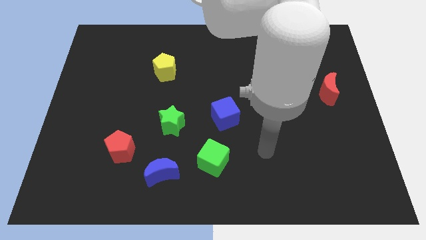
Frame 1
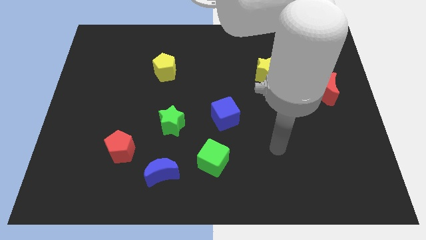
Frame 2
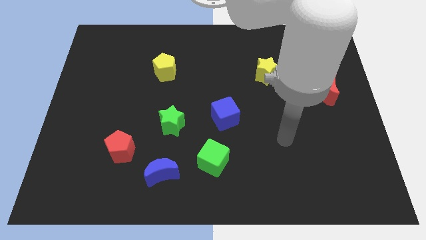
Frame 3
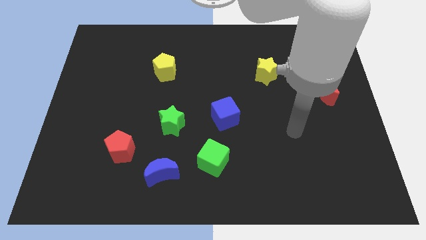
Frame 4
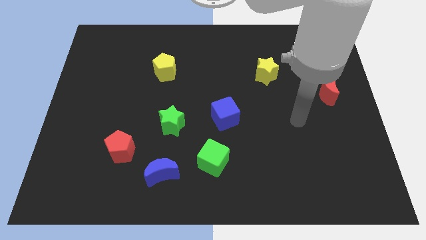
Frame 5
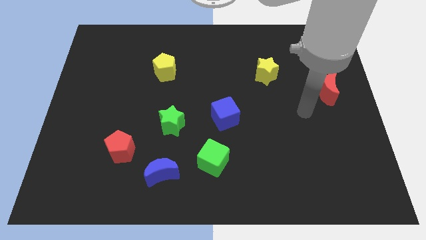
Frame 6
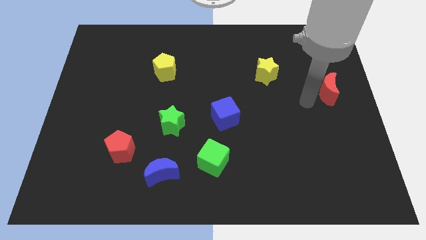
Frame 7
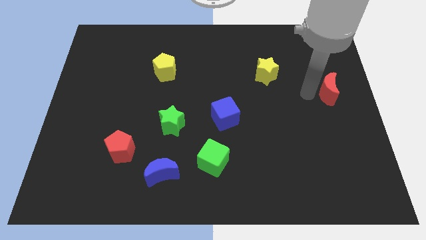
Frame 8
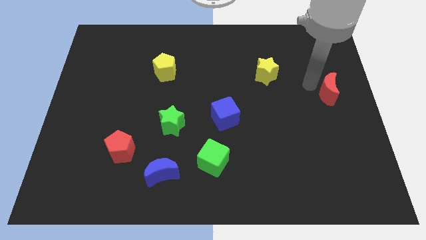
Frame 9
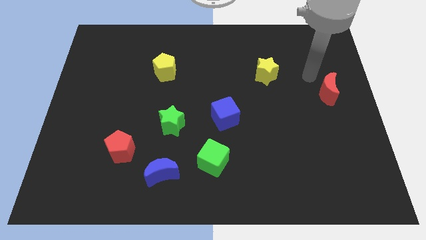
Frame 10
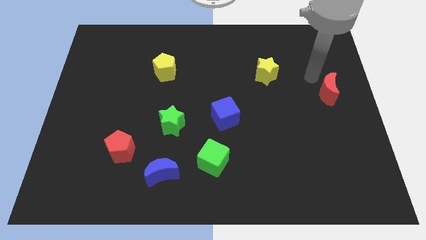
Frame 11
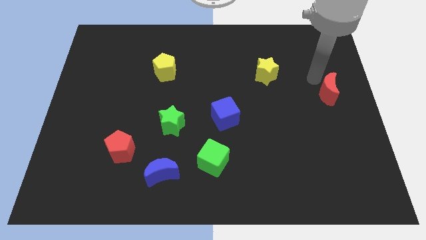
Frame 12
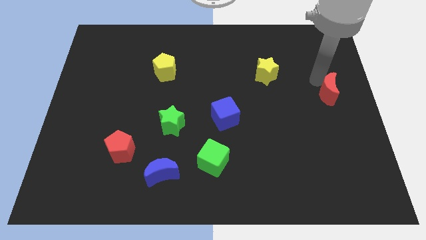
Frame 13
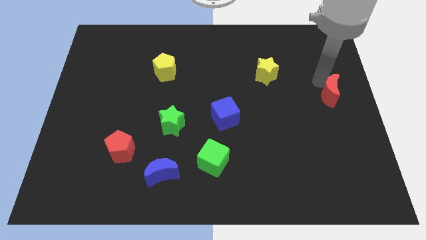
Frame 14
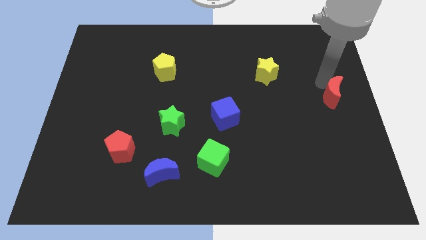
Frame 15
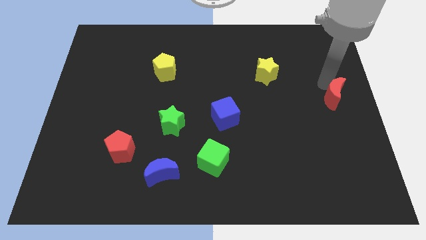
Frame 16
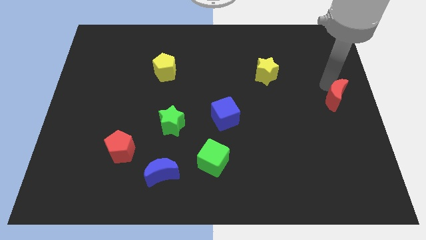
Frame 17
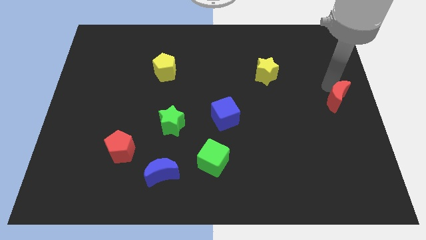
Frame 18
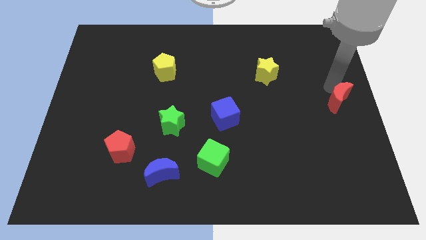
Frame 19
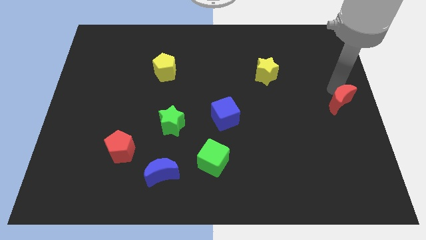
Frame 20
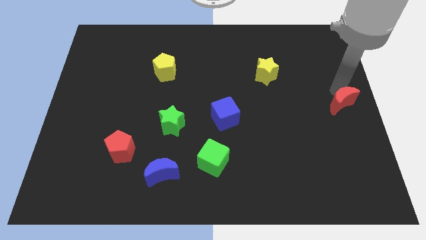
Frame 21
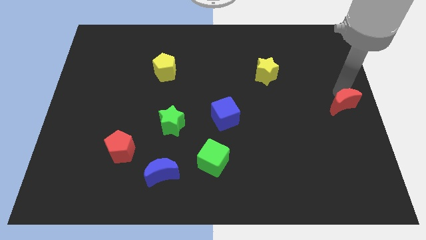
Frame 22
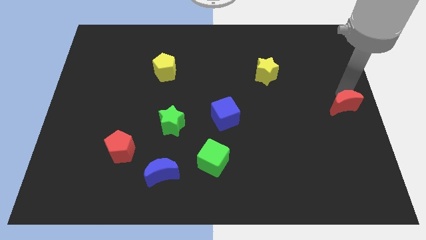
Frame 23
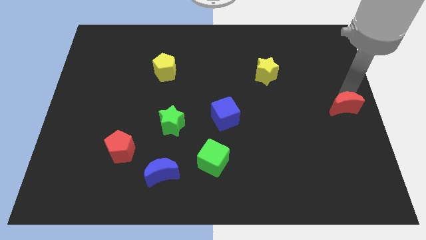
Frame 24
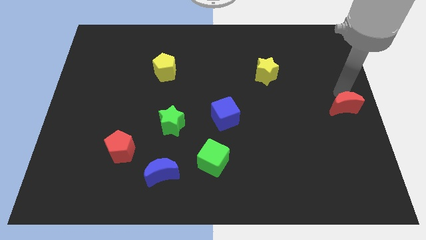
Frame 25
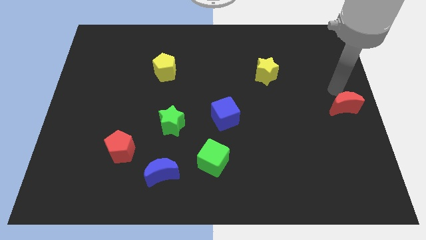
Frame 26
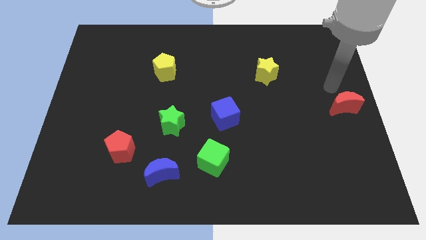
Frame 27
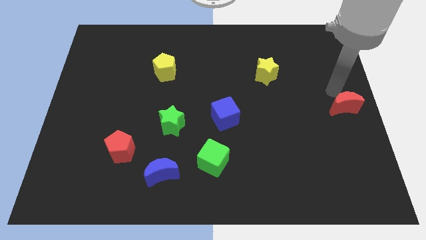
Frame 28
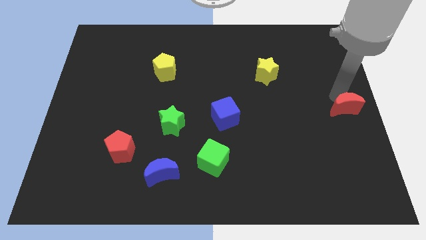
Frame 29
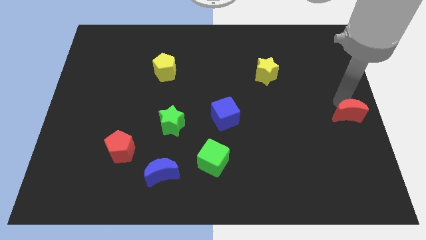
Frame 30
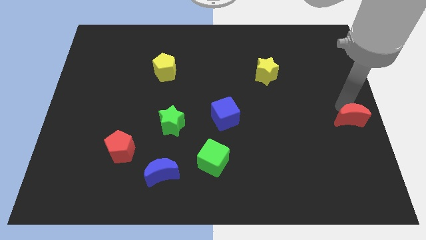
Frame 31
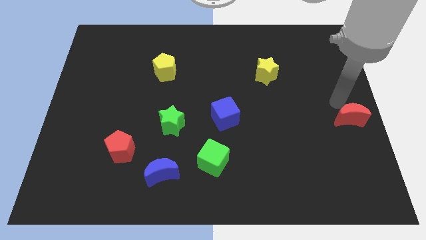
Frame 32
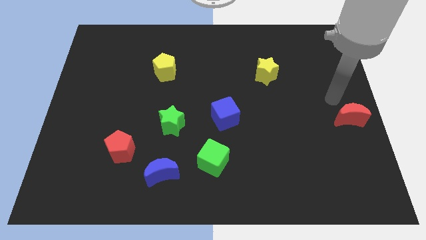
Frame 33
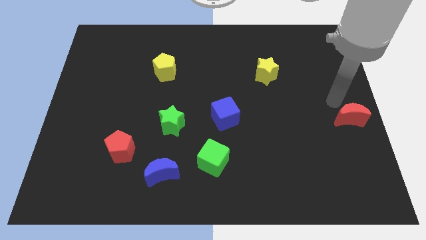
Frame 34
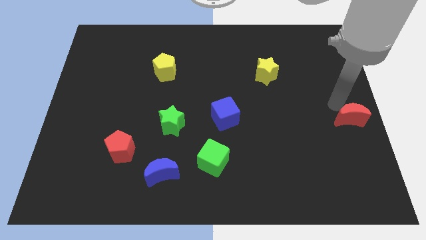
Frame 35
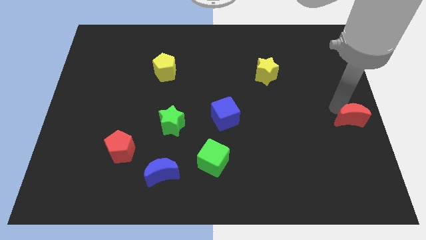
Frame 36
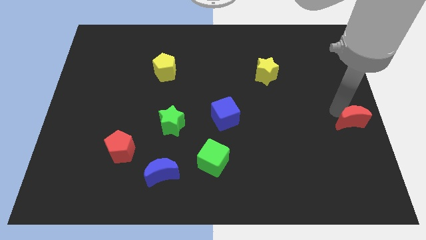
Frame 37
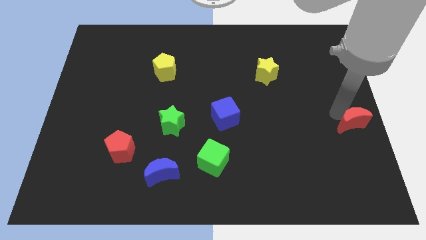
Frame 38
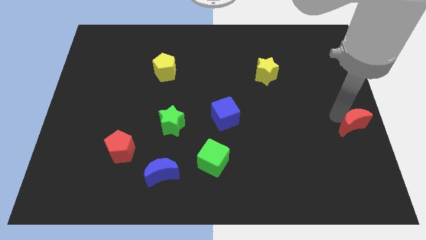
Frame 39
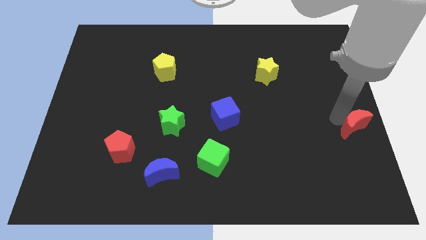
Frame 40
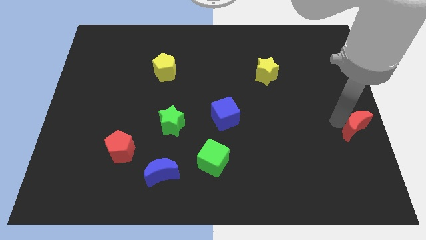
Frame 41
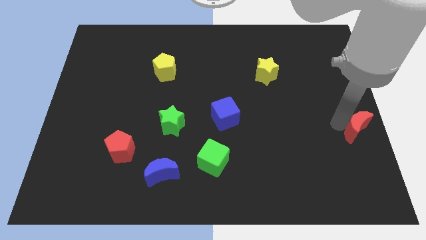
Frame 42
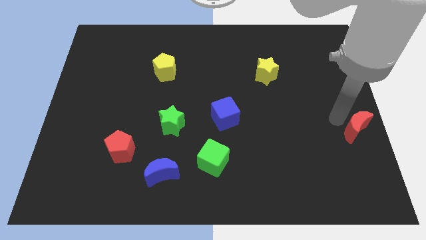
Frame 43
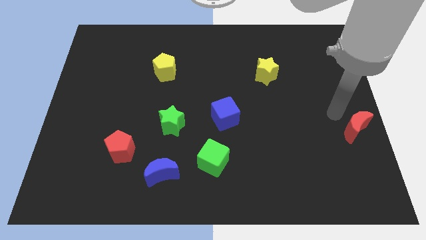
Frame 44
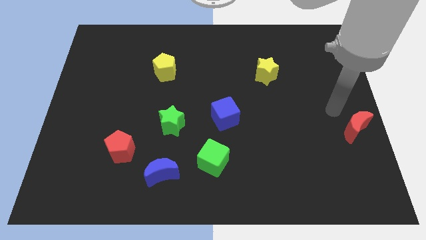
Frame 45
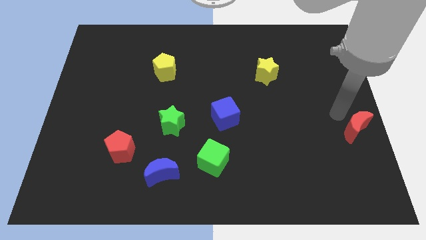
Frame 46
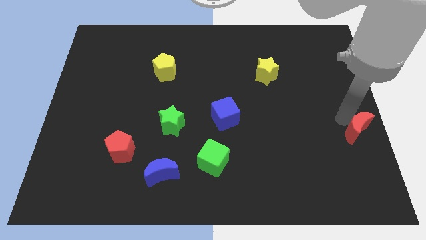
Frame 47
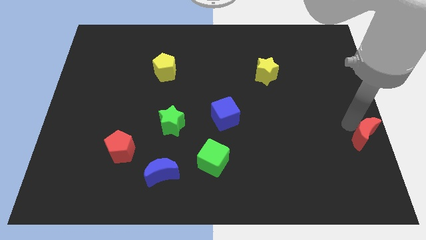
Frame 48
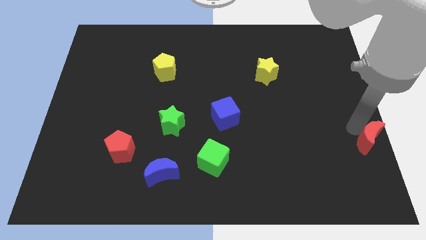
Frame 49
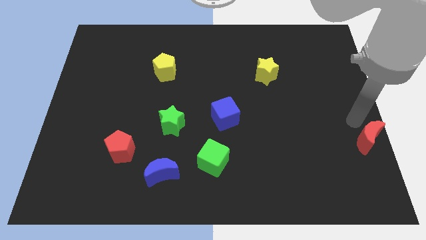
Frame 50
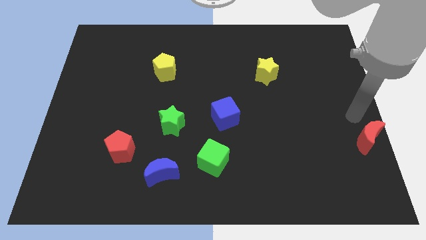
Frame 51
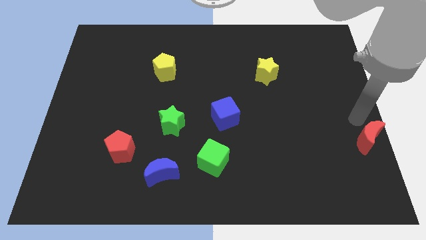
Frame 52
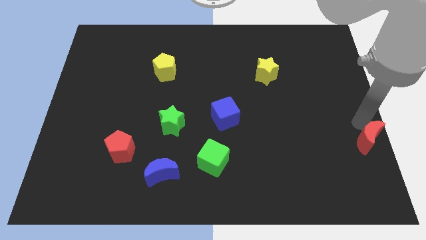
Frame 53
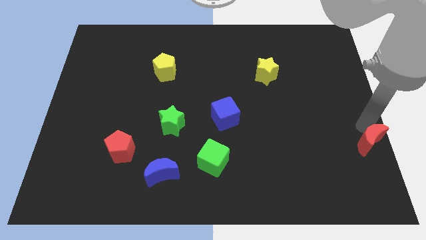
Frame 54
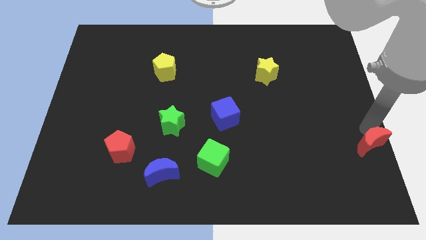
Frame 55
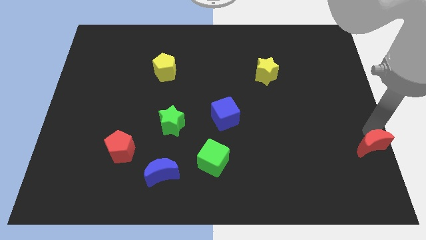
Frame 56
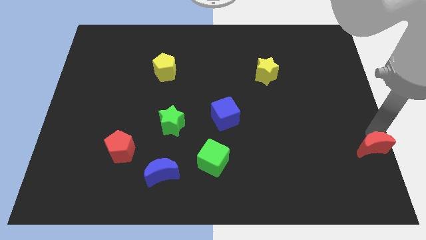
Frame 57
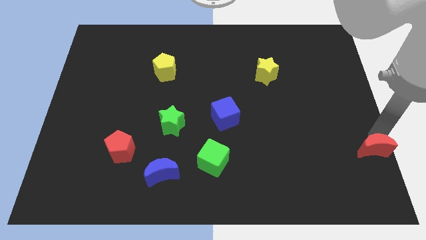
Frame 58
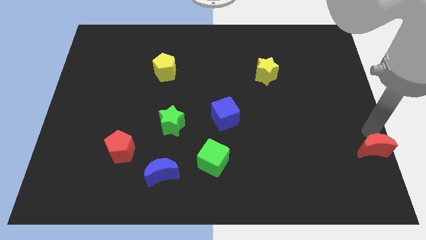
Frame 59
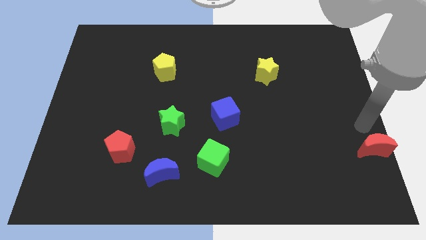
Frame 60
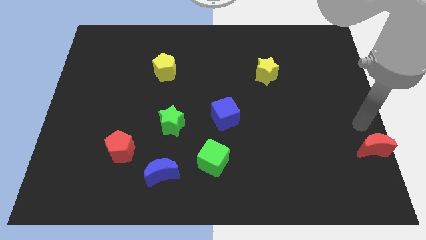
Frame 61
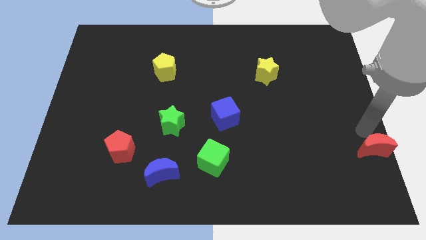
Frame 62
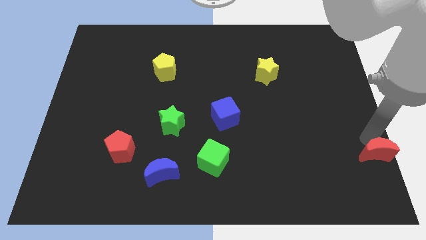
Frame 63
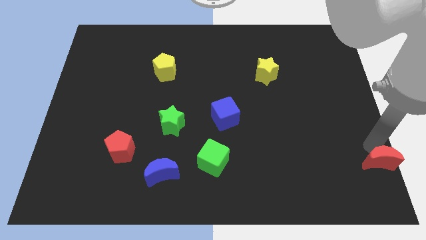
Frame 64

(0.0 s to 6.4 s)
move the red moon to the lower right corner
